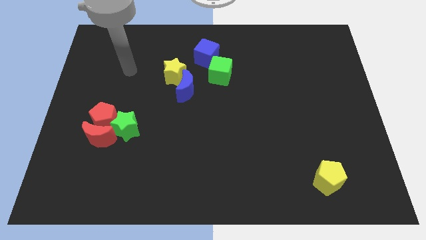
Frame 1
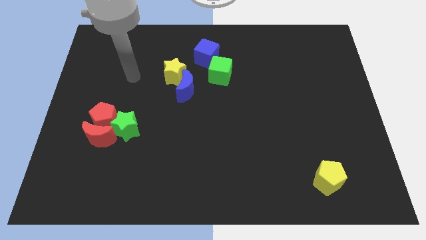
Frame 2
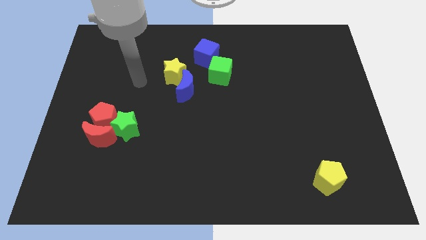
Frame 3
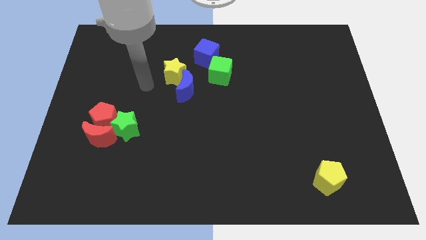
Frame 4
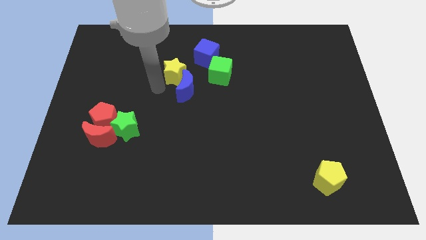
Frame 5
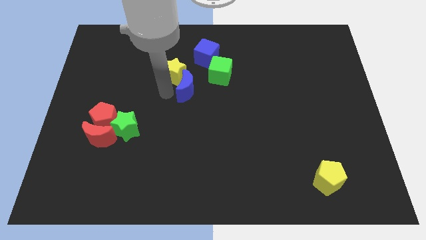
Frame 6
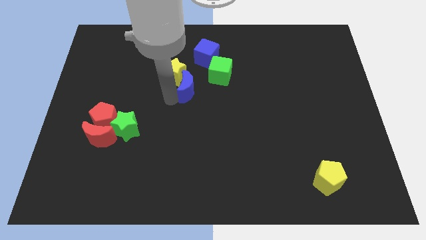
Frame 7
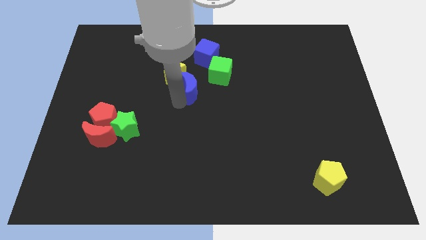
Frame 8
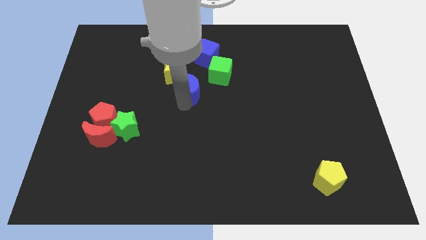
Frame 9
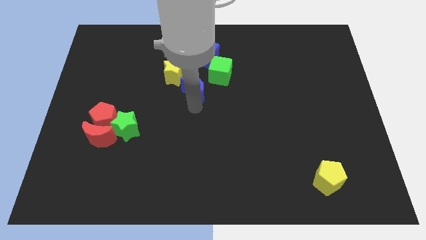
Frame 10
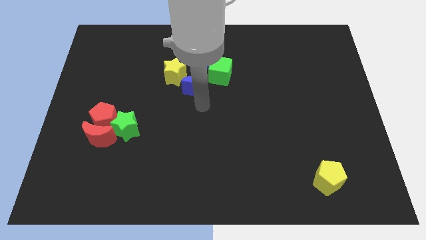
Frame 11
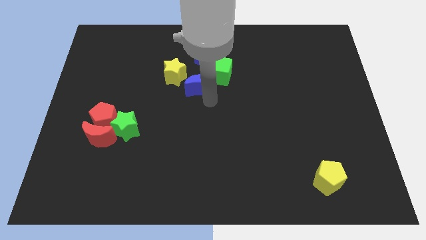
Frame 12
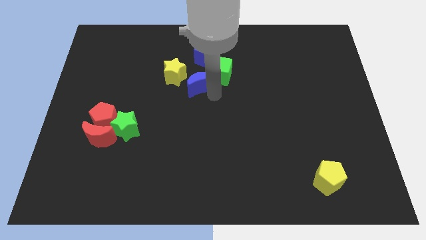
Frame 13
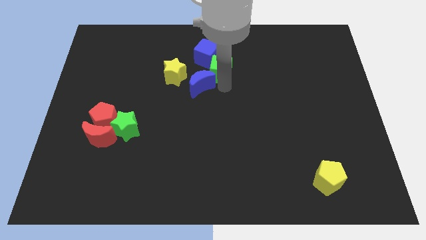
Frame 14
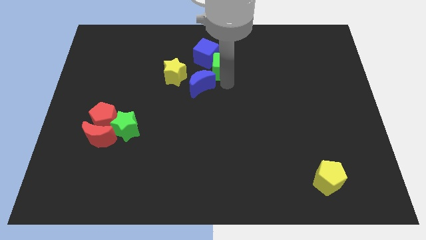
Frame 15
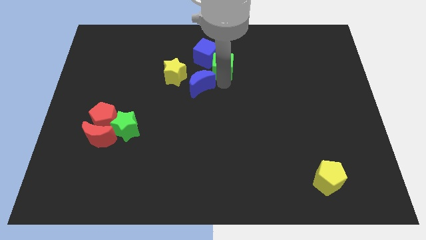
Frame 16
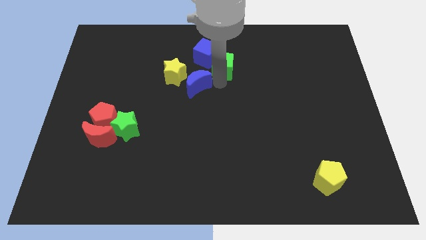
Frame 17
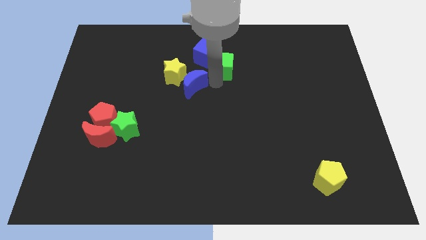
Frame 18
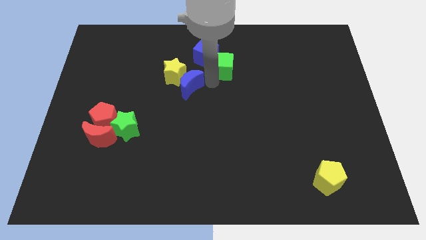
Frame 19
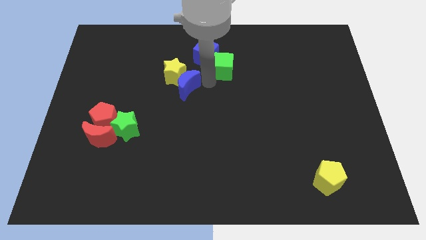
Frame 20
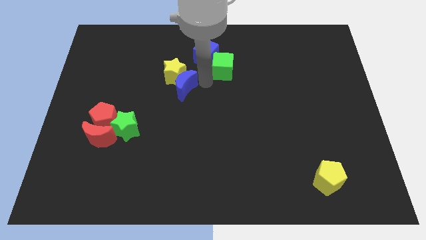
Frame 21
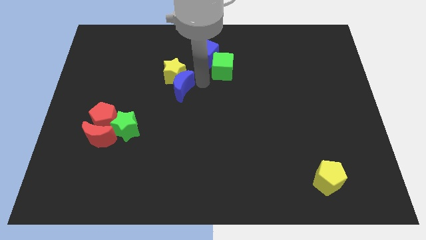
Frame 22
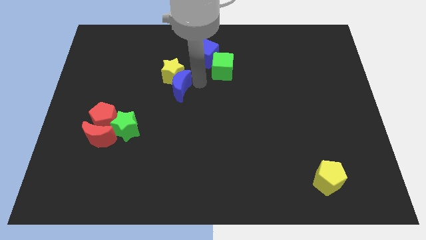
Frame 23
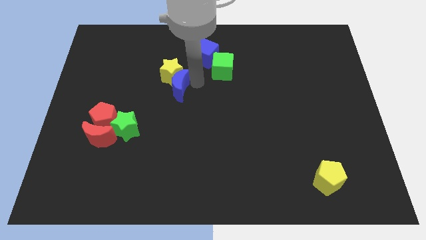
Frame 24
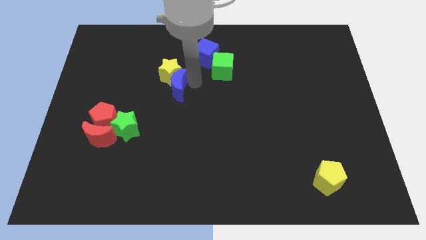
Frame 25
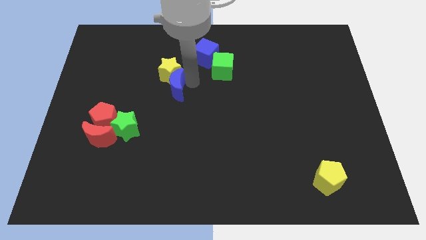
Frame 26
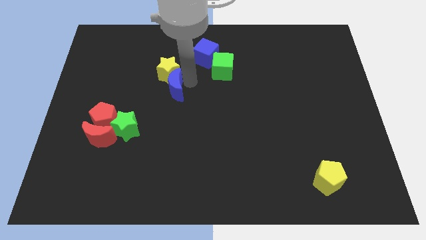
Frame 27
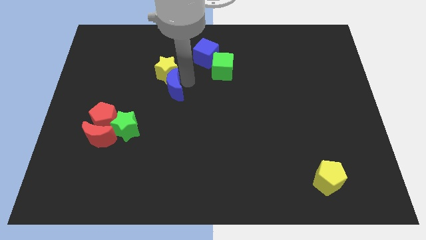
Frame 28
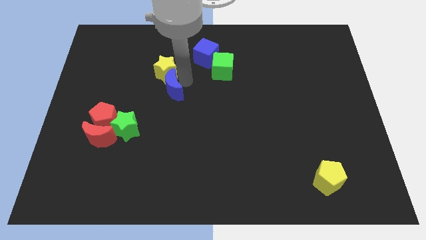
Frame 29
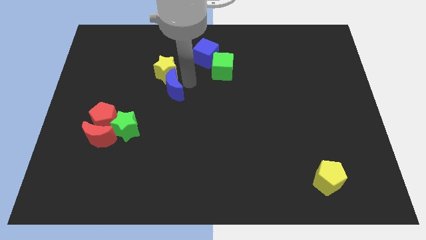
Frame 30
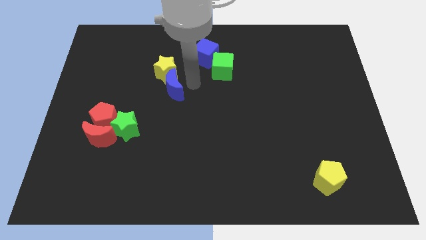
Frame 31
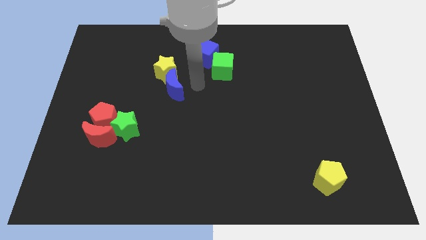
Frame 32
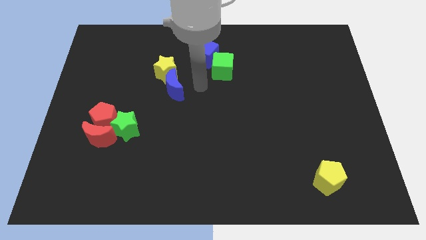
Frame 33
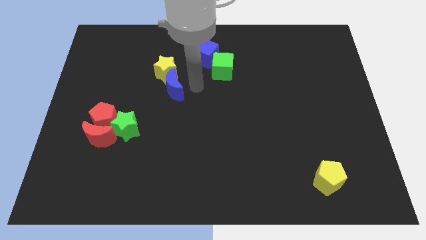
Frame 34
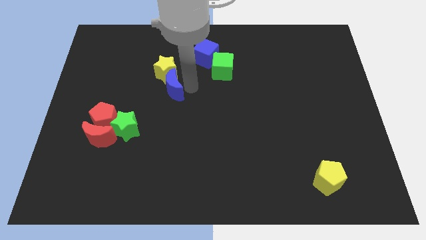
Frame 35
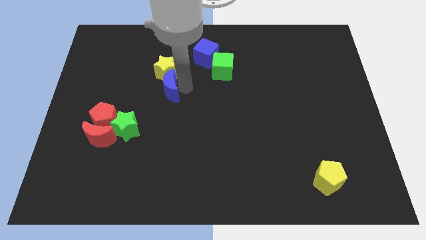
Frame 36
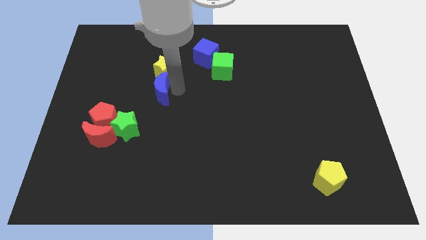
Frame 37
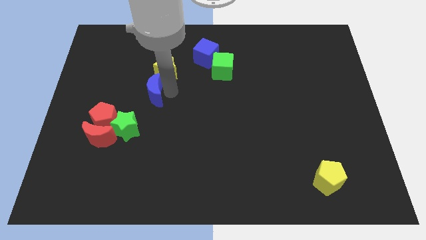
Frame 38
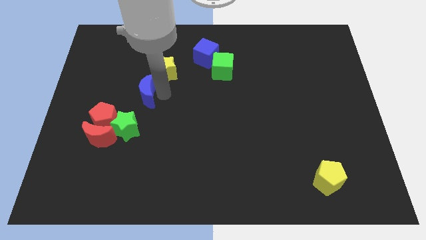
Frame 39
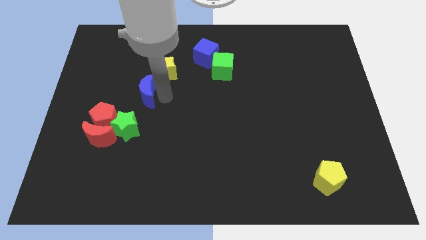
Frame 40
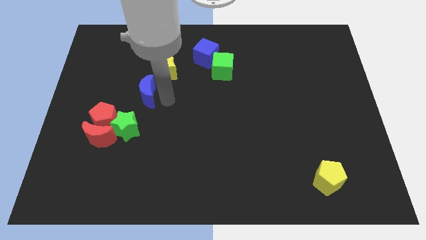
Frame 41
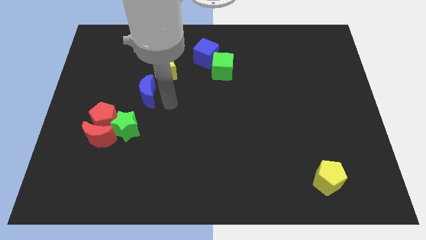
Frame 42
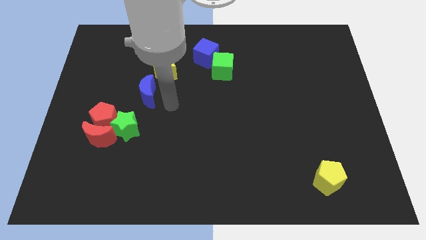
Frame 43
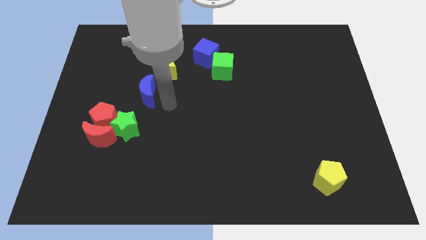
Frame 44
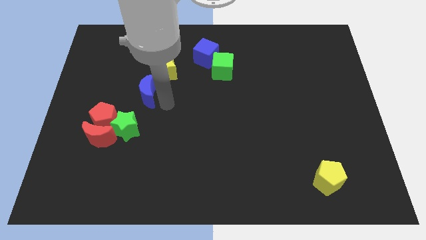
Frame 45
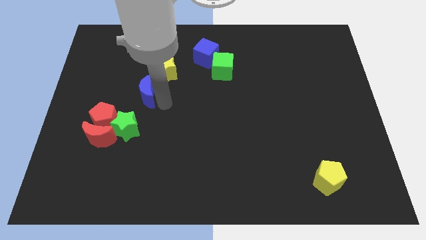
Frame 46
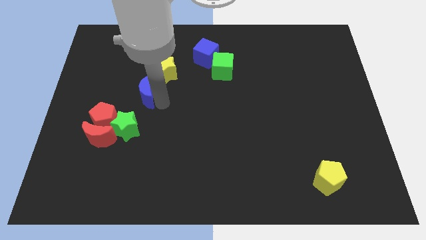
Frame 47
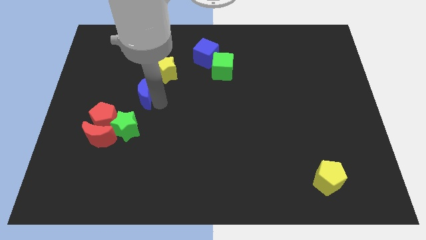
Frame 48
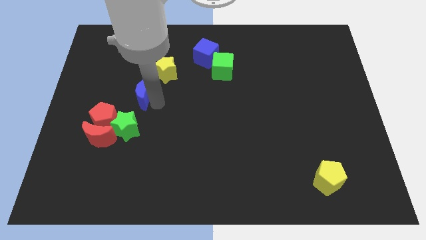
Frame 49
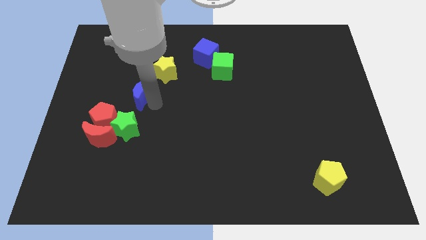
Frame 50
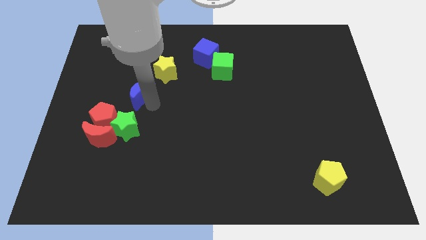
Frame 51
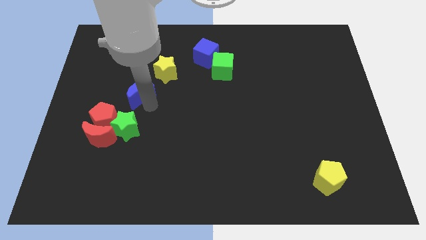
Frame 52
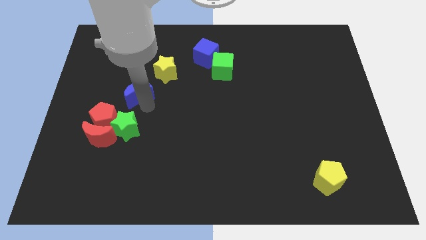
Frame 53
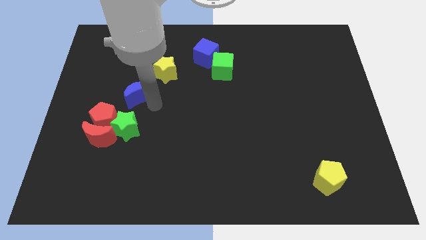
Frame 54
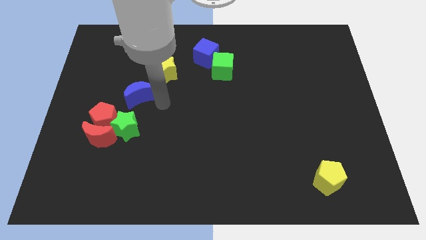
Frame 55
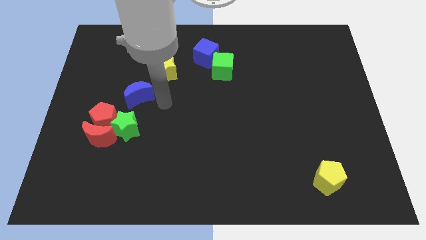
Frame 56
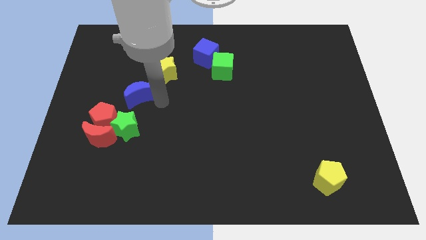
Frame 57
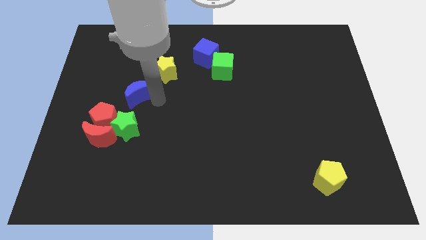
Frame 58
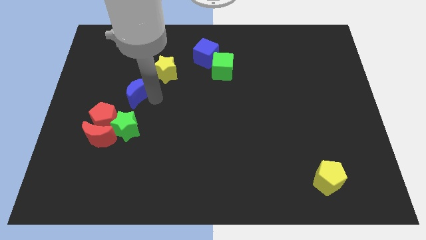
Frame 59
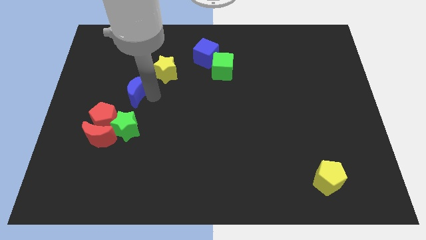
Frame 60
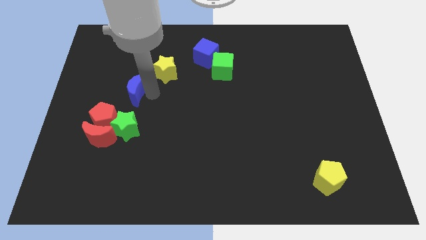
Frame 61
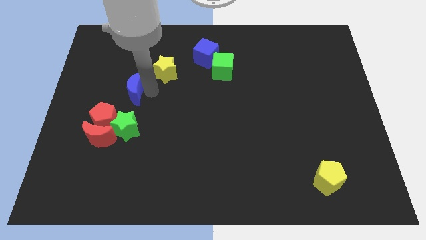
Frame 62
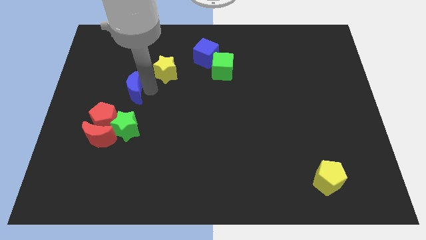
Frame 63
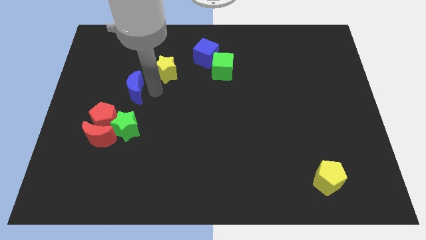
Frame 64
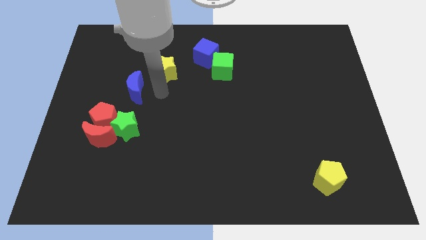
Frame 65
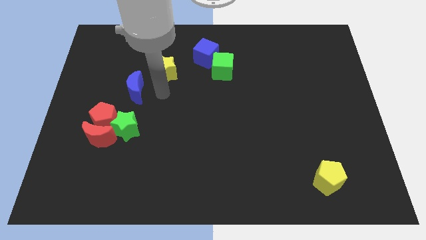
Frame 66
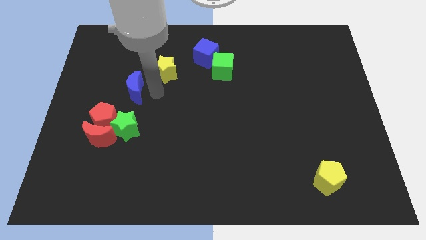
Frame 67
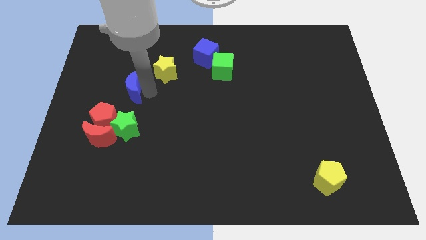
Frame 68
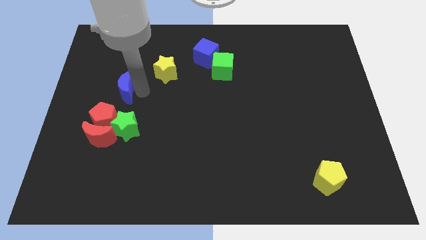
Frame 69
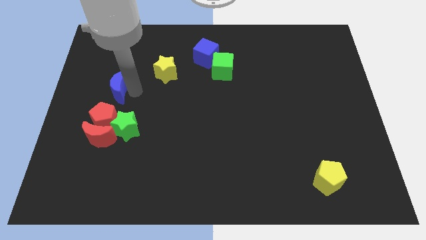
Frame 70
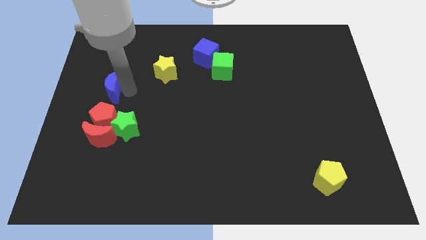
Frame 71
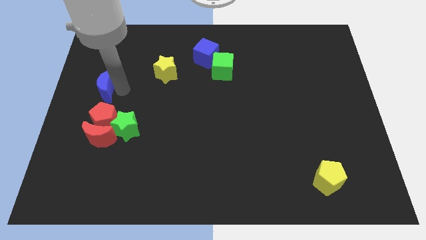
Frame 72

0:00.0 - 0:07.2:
push the blue moon to the center left
